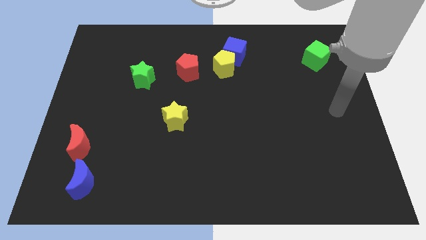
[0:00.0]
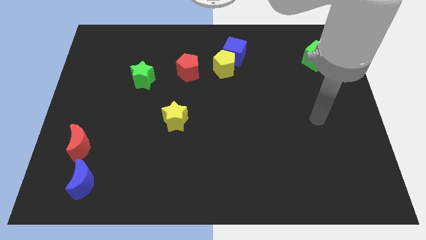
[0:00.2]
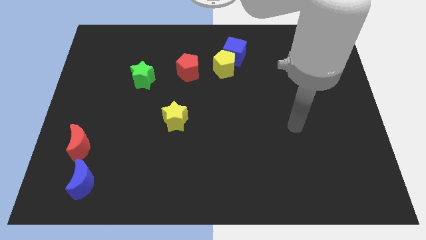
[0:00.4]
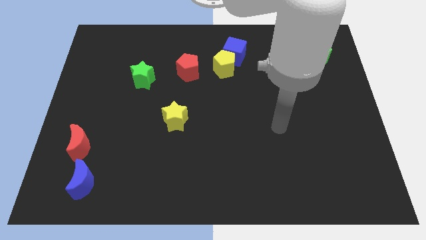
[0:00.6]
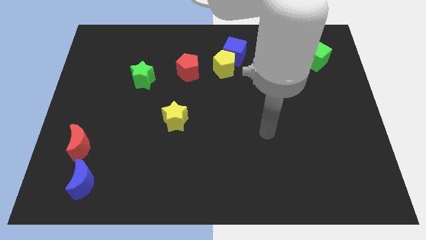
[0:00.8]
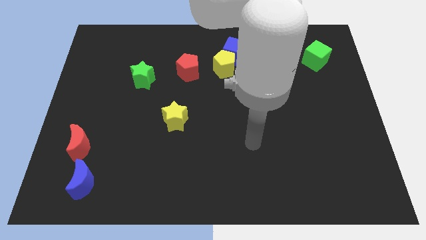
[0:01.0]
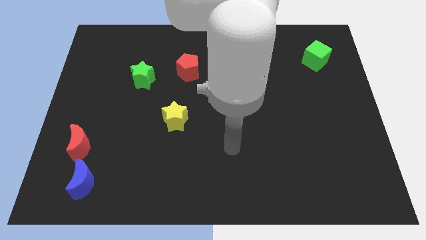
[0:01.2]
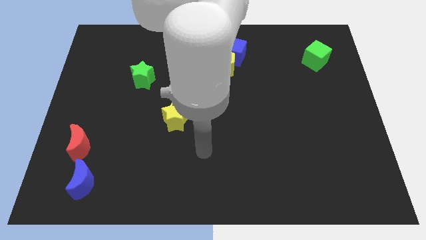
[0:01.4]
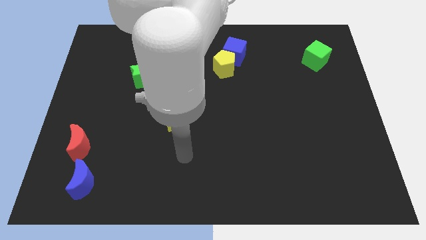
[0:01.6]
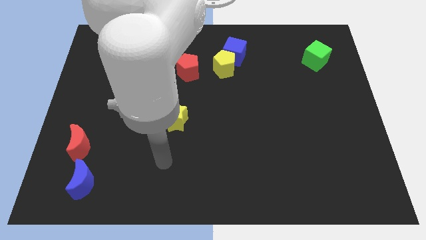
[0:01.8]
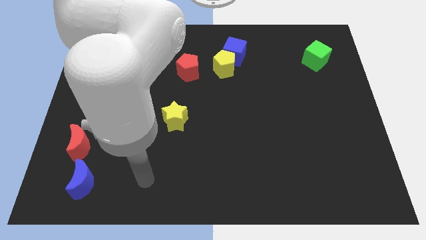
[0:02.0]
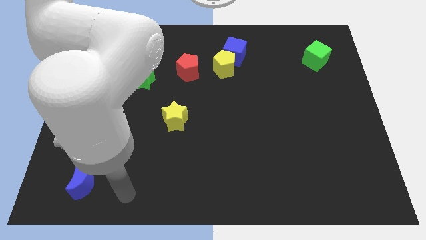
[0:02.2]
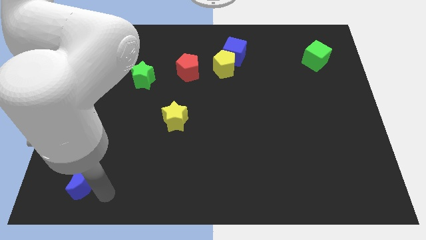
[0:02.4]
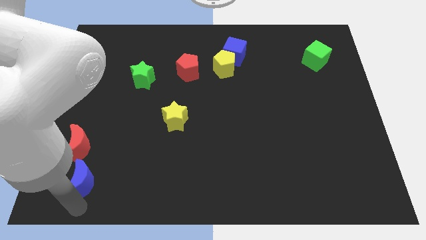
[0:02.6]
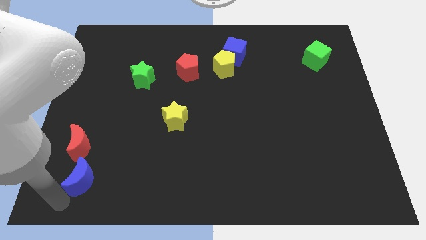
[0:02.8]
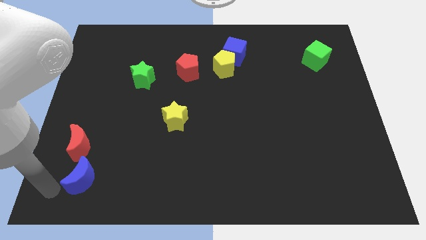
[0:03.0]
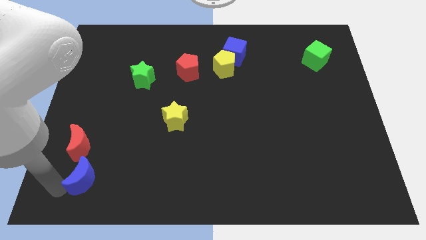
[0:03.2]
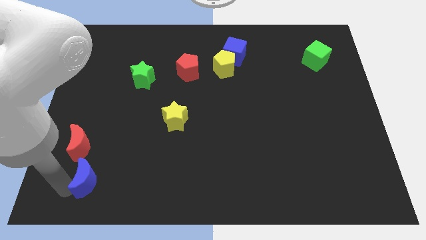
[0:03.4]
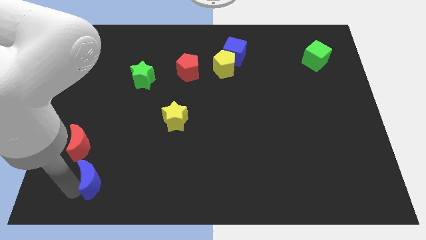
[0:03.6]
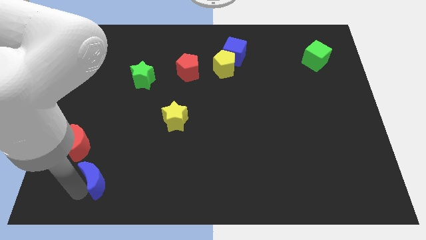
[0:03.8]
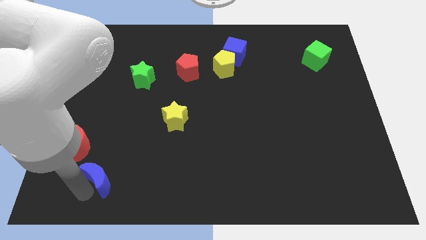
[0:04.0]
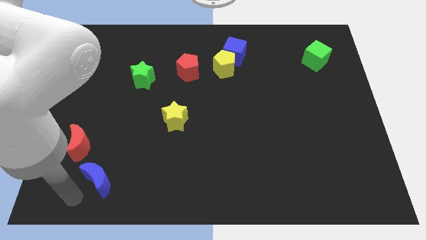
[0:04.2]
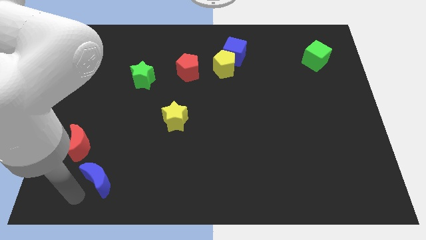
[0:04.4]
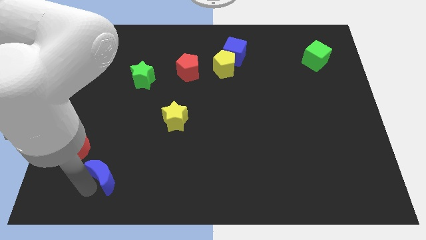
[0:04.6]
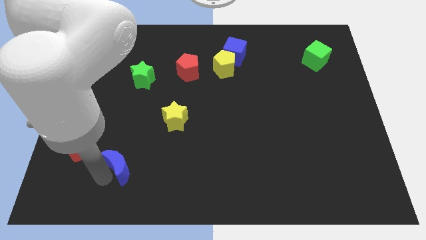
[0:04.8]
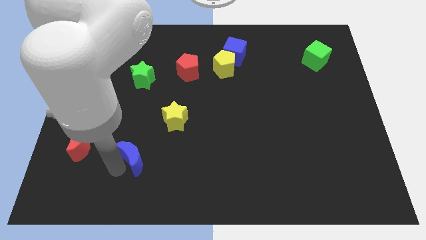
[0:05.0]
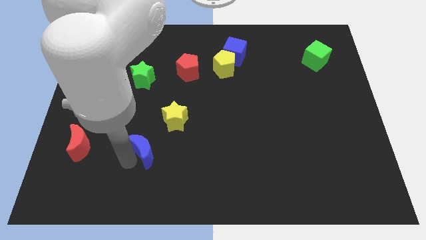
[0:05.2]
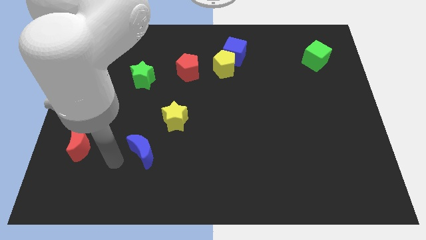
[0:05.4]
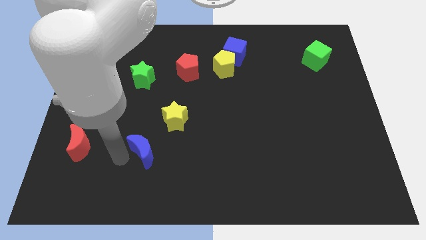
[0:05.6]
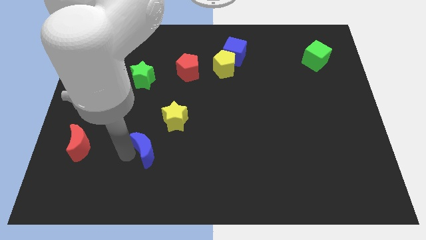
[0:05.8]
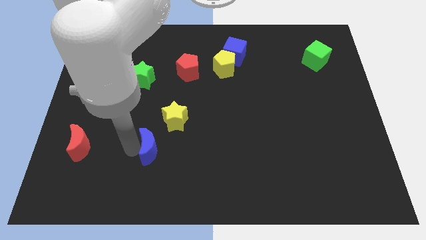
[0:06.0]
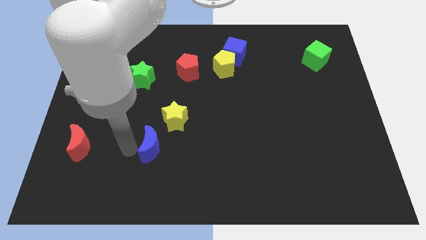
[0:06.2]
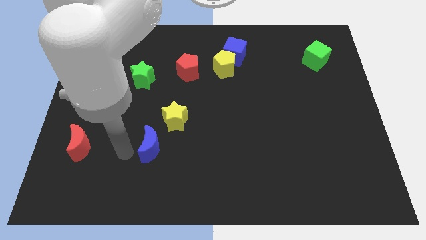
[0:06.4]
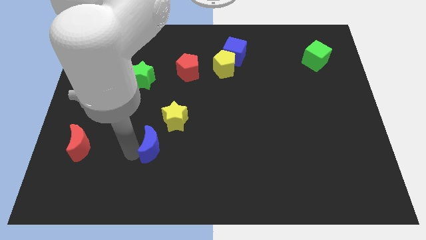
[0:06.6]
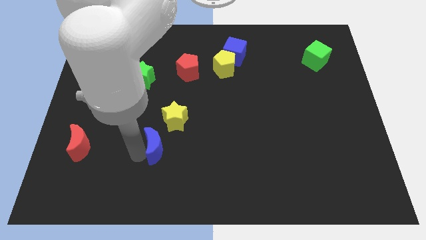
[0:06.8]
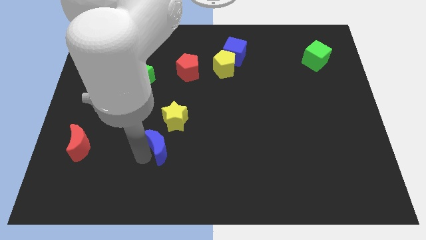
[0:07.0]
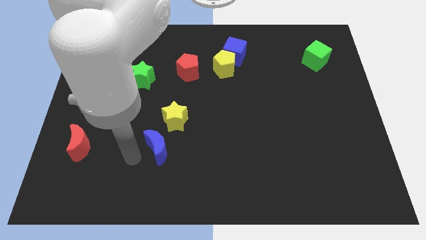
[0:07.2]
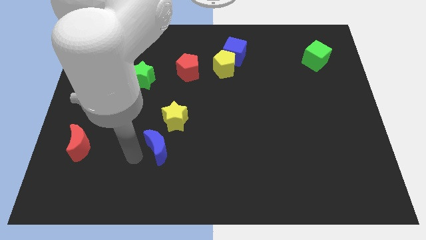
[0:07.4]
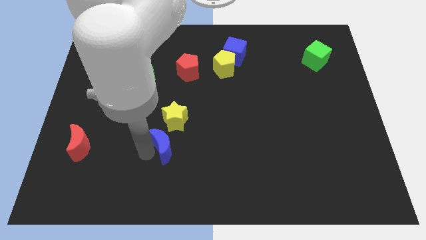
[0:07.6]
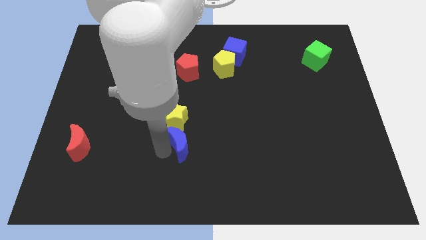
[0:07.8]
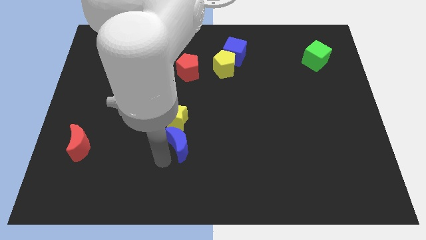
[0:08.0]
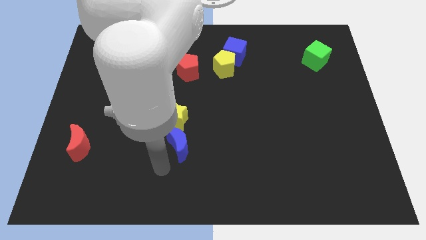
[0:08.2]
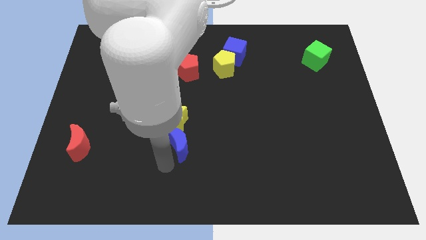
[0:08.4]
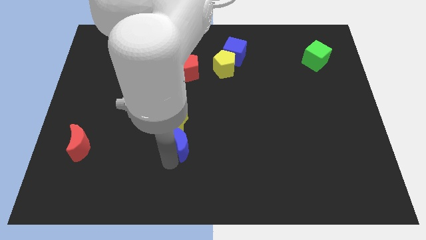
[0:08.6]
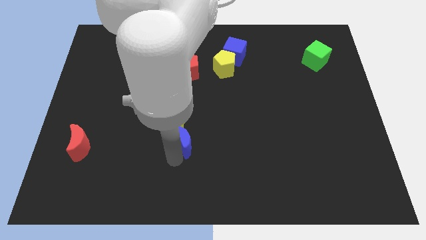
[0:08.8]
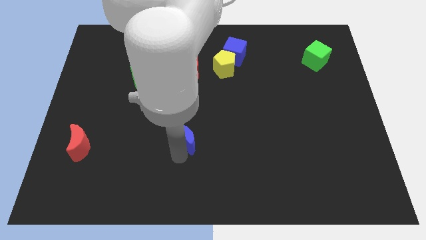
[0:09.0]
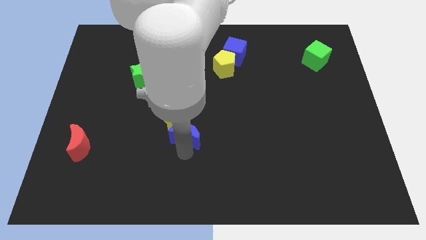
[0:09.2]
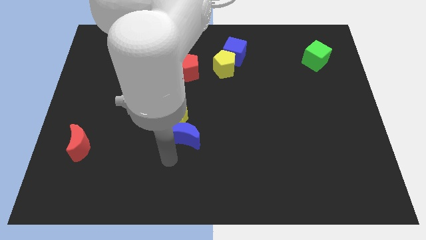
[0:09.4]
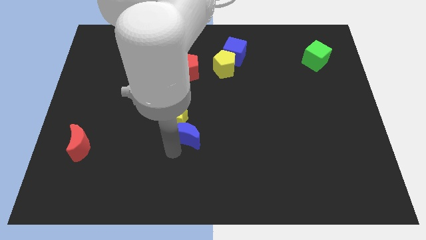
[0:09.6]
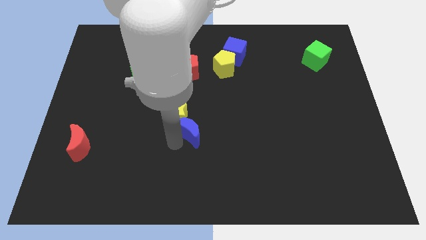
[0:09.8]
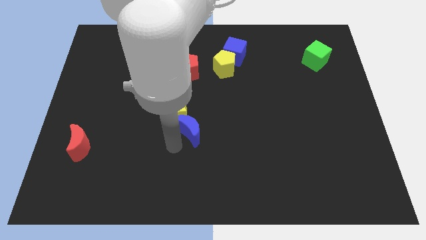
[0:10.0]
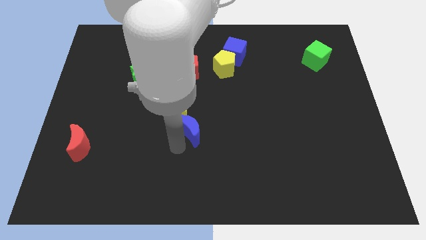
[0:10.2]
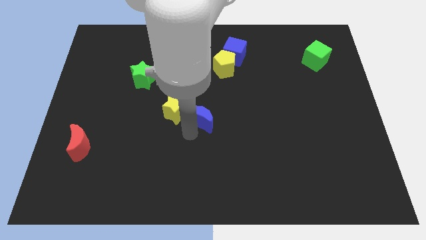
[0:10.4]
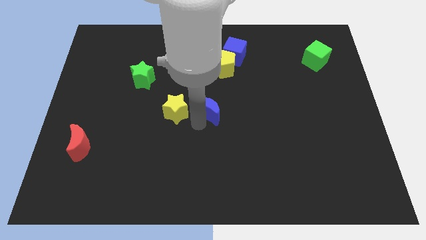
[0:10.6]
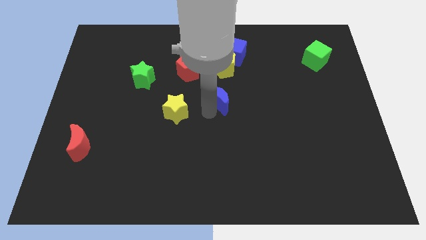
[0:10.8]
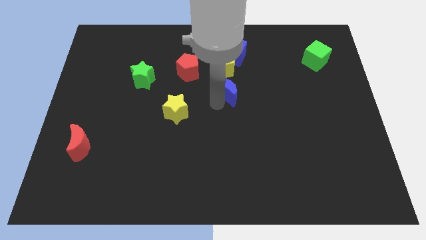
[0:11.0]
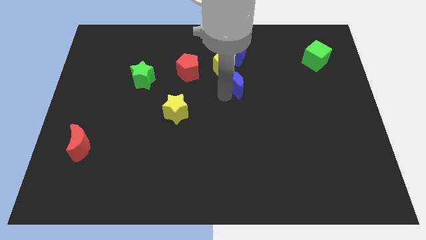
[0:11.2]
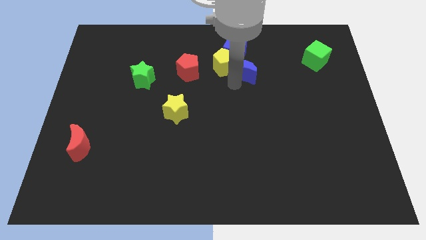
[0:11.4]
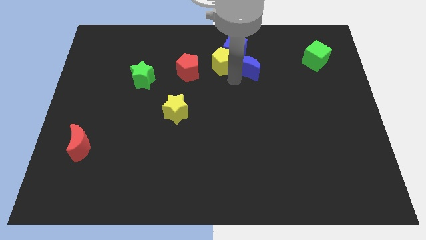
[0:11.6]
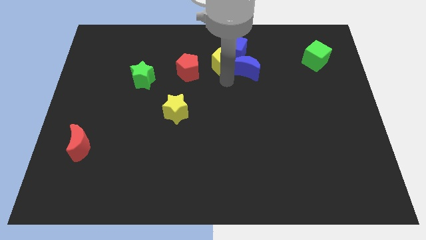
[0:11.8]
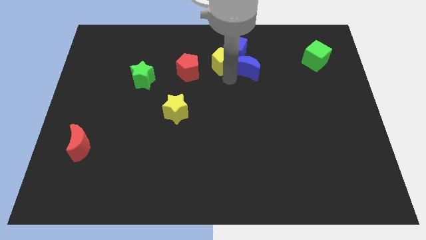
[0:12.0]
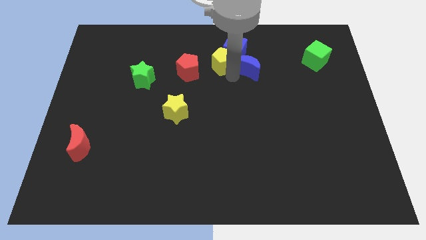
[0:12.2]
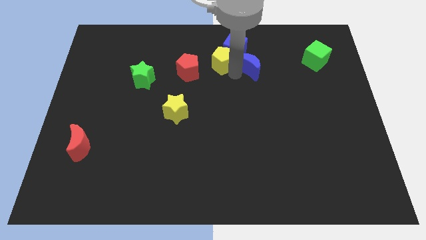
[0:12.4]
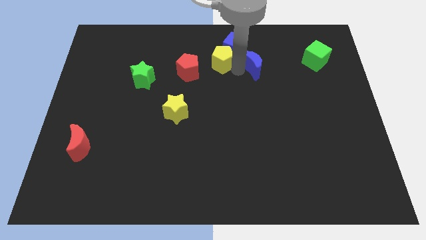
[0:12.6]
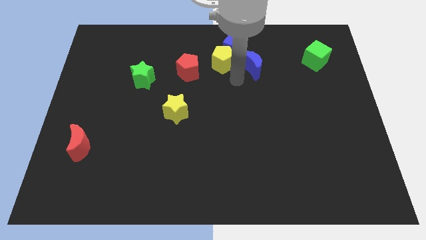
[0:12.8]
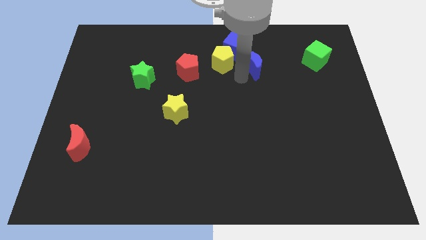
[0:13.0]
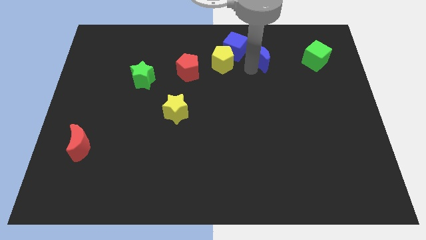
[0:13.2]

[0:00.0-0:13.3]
put the blue moon right of the blue cube
